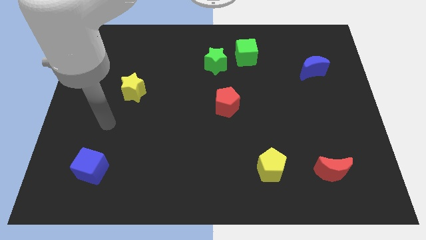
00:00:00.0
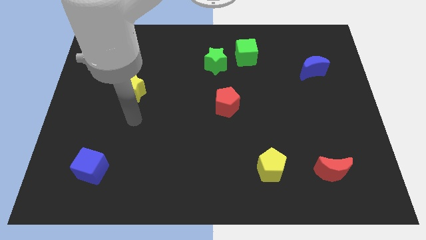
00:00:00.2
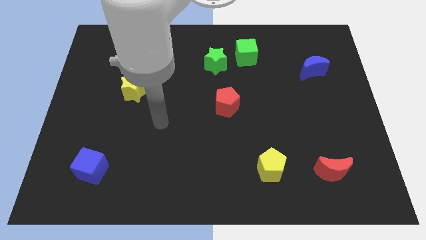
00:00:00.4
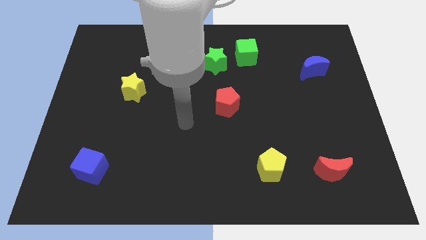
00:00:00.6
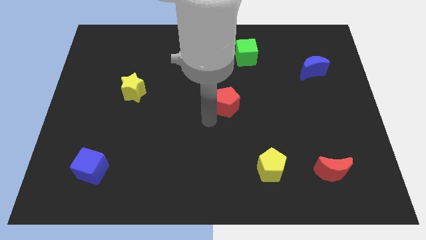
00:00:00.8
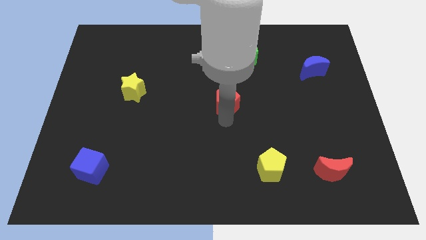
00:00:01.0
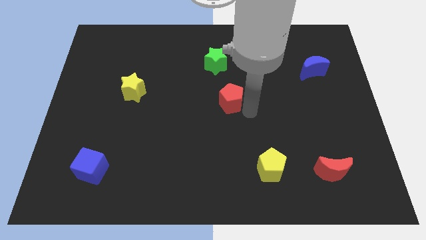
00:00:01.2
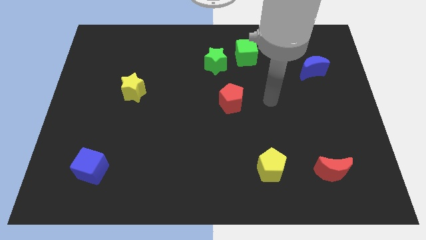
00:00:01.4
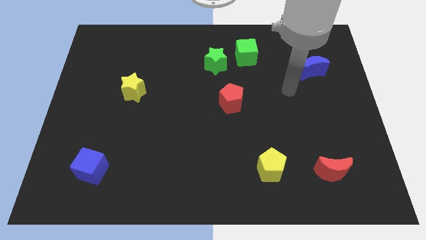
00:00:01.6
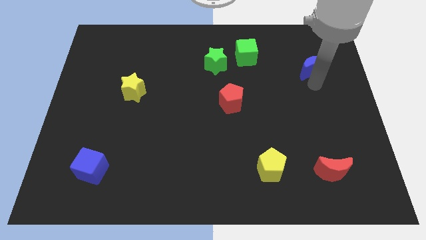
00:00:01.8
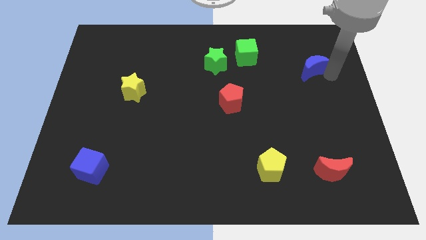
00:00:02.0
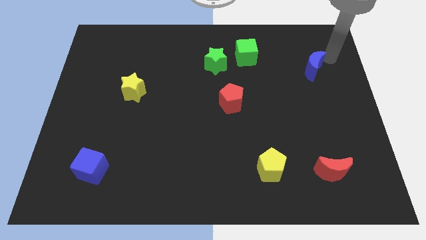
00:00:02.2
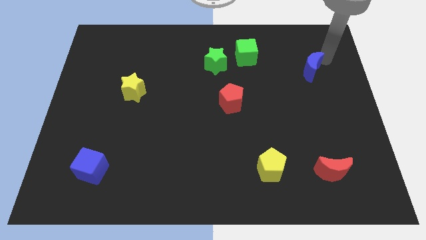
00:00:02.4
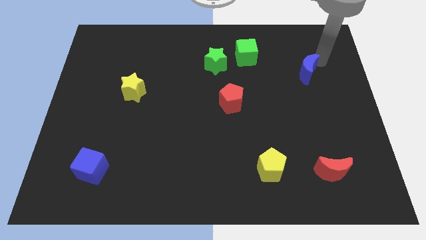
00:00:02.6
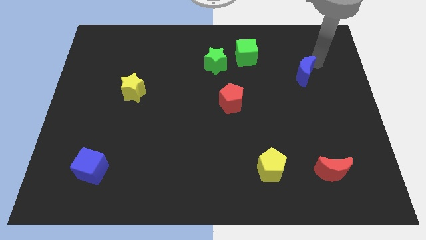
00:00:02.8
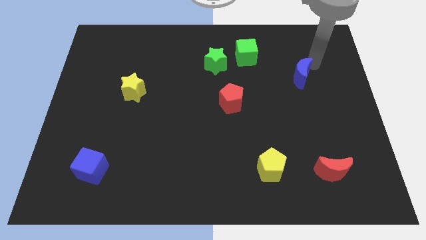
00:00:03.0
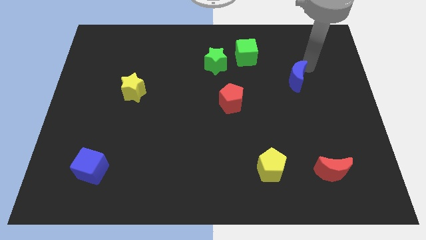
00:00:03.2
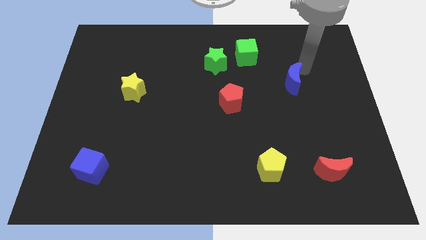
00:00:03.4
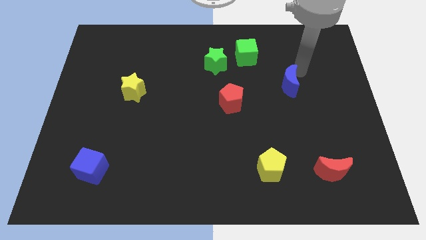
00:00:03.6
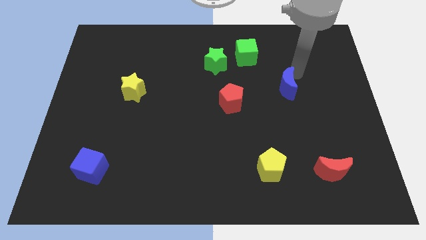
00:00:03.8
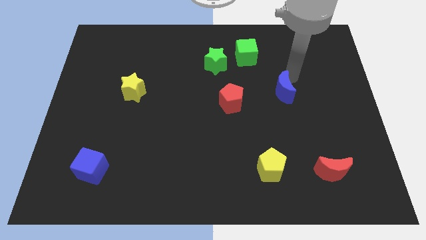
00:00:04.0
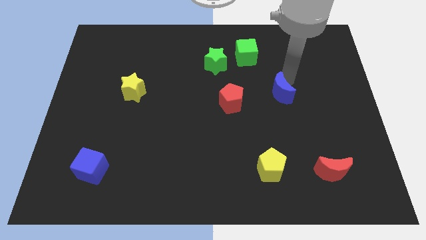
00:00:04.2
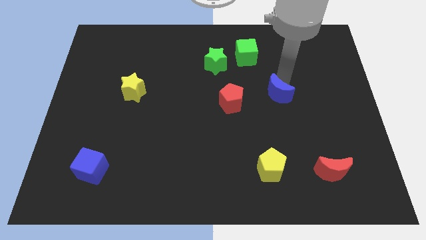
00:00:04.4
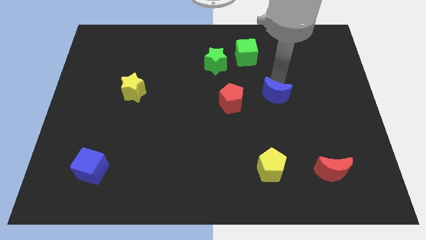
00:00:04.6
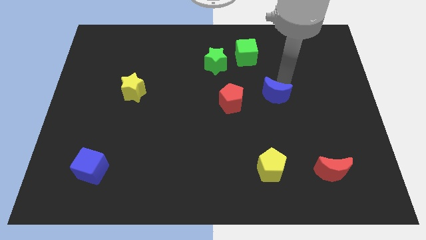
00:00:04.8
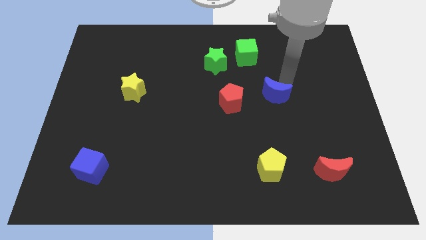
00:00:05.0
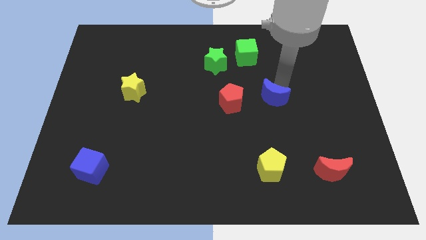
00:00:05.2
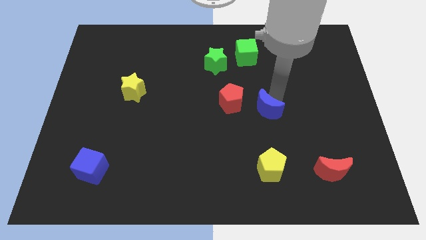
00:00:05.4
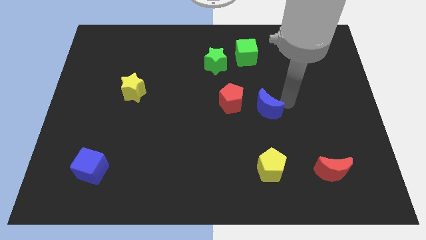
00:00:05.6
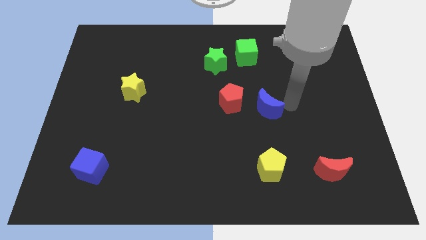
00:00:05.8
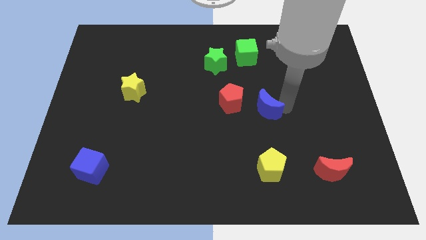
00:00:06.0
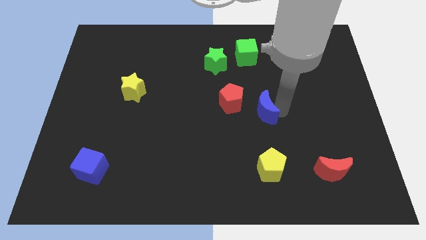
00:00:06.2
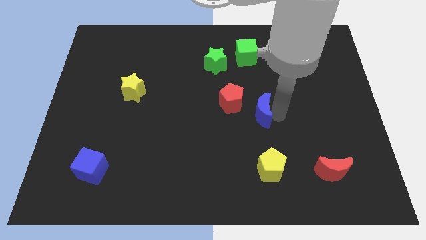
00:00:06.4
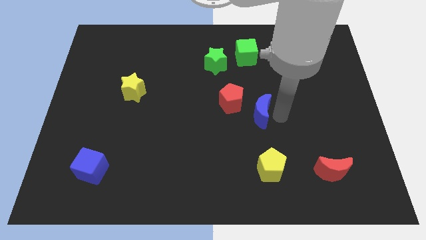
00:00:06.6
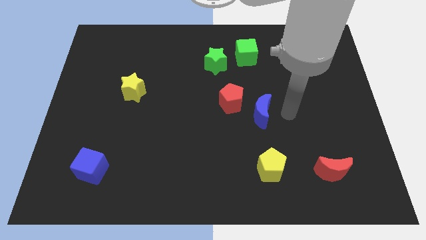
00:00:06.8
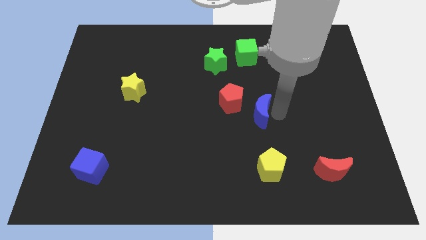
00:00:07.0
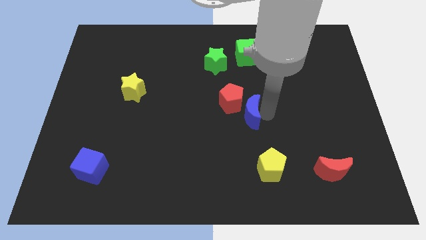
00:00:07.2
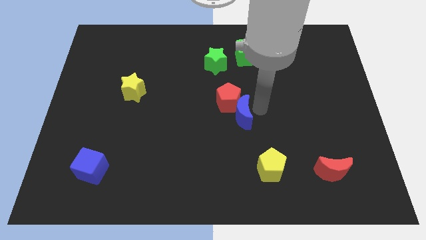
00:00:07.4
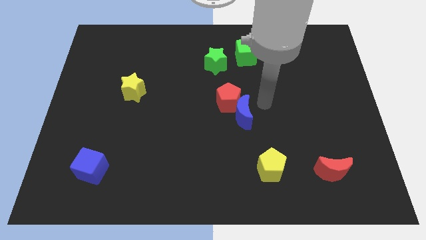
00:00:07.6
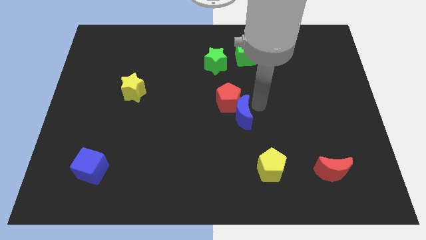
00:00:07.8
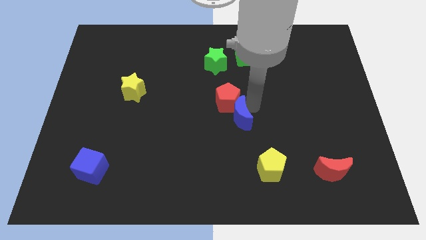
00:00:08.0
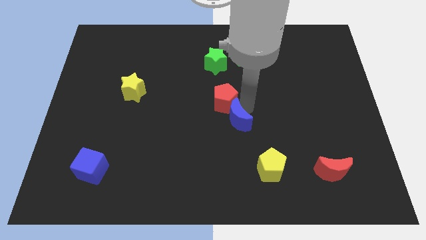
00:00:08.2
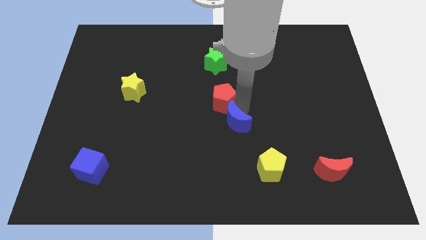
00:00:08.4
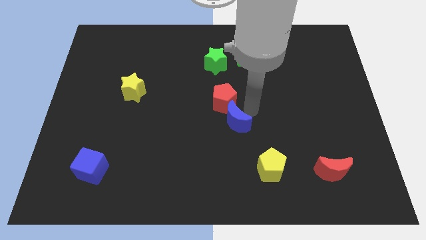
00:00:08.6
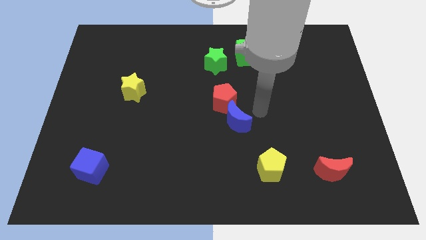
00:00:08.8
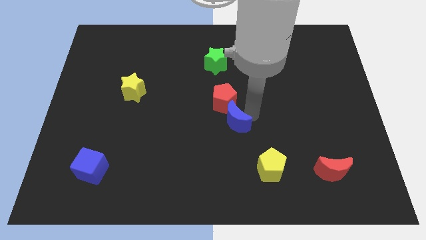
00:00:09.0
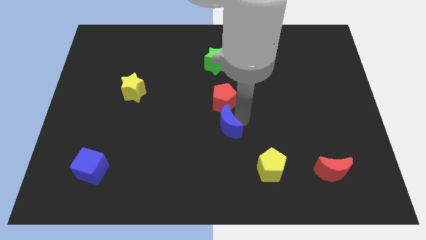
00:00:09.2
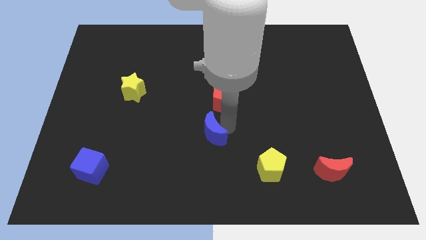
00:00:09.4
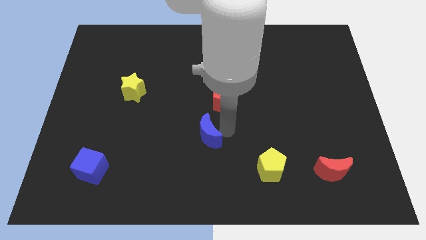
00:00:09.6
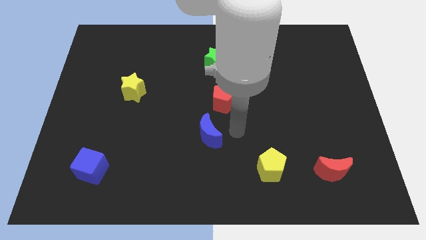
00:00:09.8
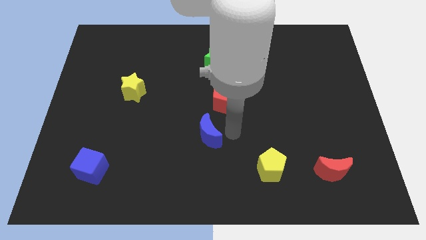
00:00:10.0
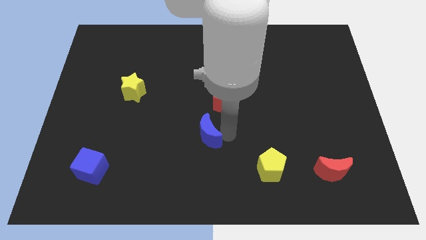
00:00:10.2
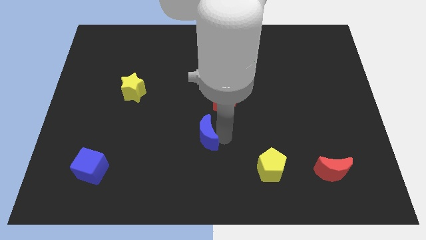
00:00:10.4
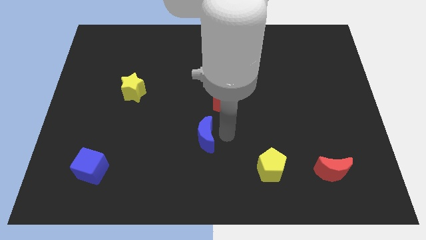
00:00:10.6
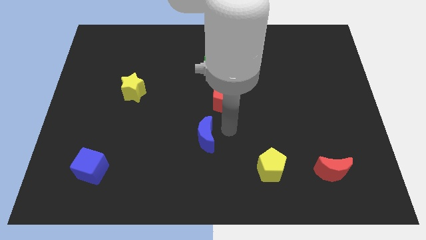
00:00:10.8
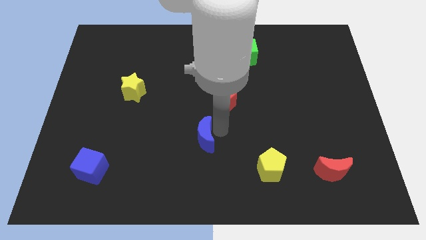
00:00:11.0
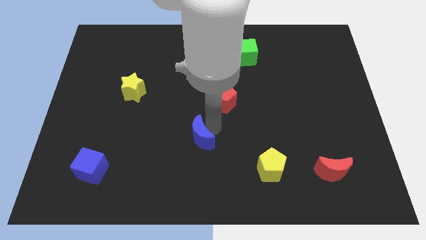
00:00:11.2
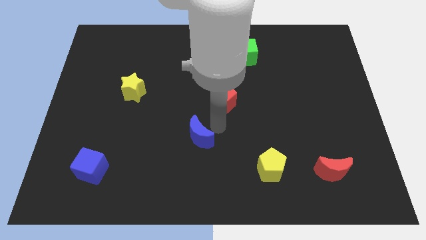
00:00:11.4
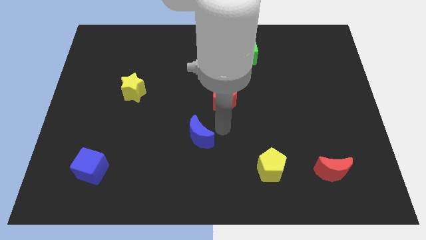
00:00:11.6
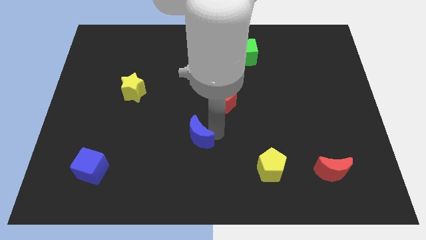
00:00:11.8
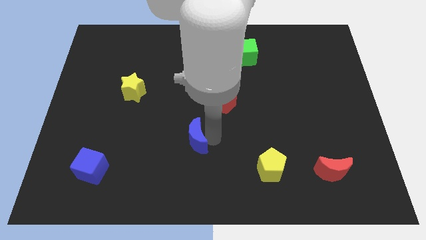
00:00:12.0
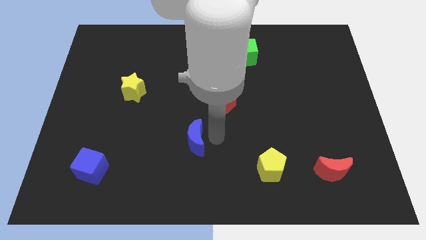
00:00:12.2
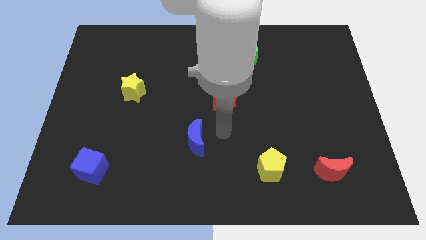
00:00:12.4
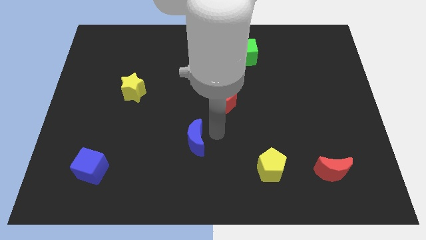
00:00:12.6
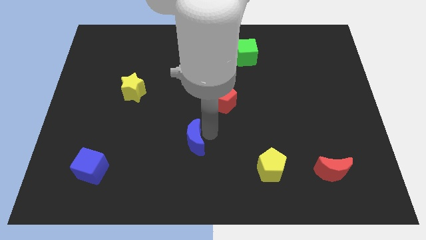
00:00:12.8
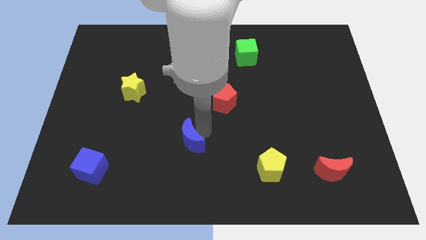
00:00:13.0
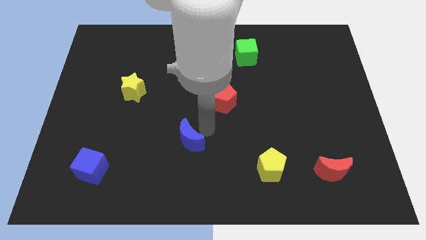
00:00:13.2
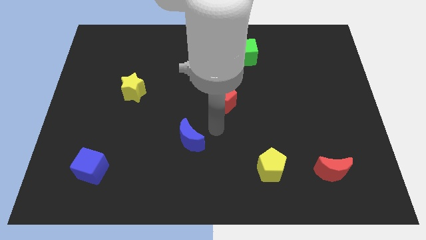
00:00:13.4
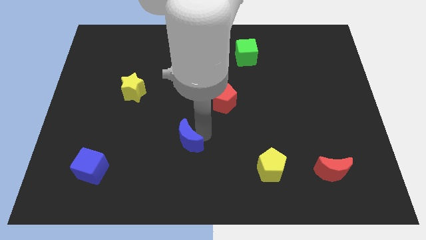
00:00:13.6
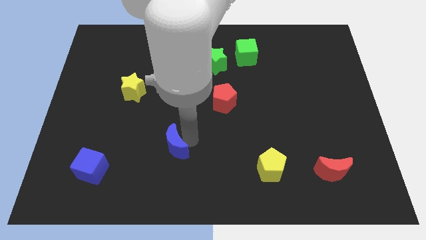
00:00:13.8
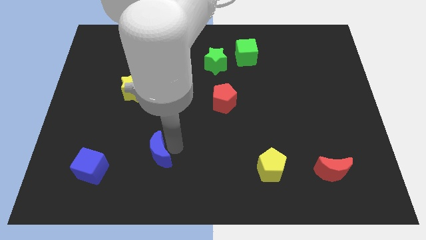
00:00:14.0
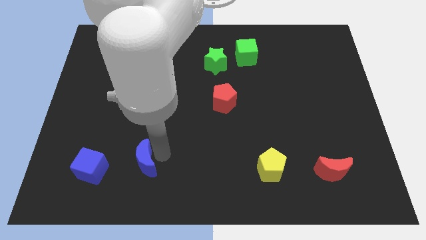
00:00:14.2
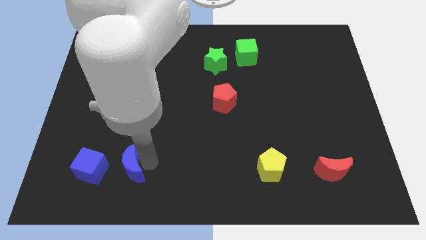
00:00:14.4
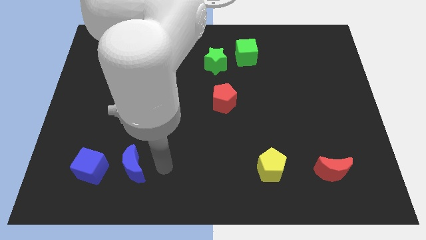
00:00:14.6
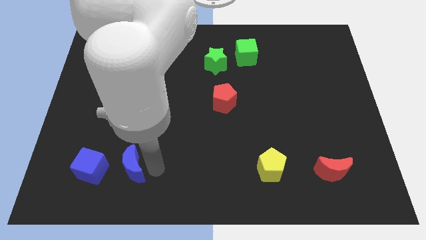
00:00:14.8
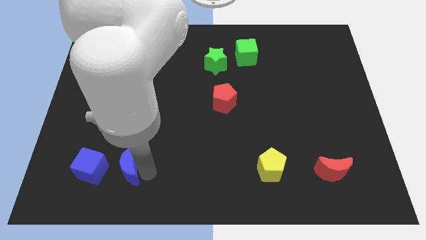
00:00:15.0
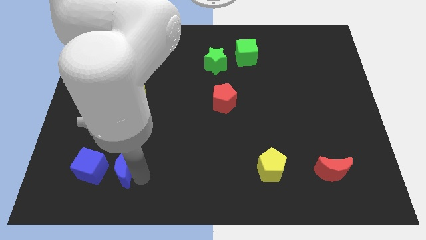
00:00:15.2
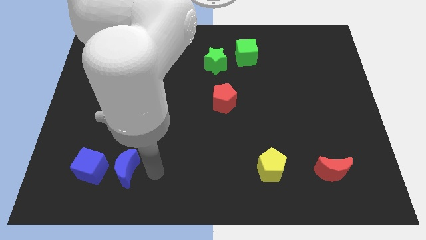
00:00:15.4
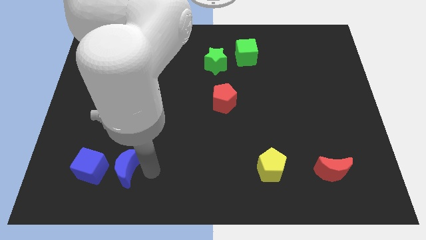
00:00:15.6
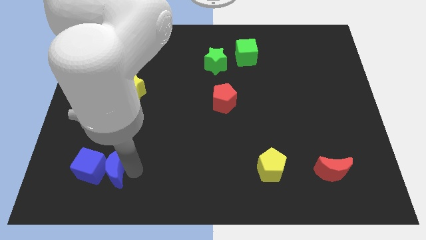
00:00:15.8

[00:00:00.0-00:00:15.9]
slide the blue moon towards the blue cube
